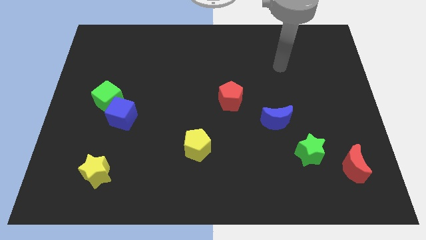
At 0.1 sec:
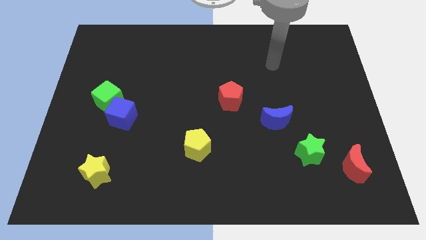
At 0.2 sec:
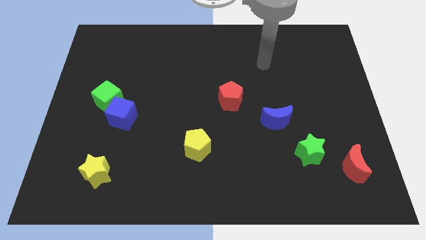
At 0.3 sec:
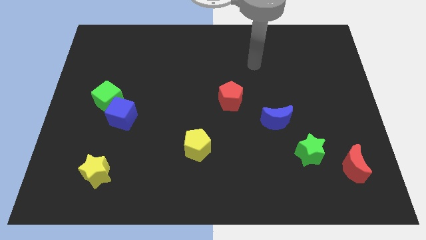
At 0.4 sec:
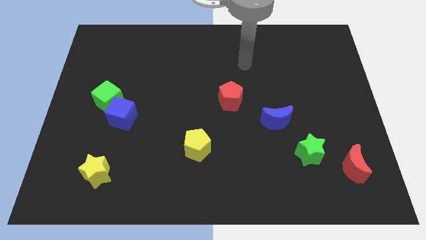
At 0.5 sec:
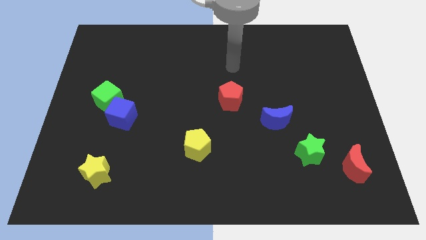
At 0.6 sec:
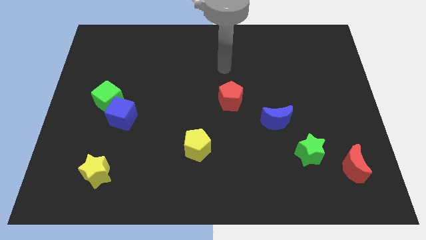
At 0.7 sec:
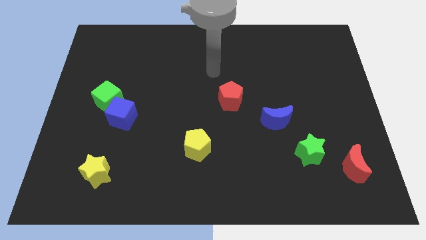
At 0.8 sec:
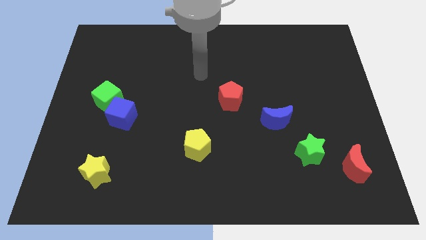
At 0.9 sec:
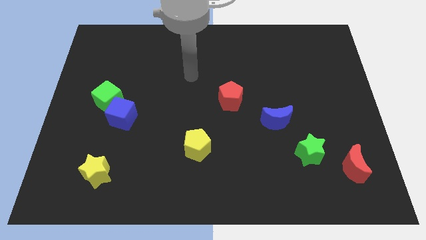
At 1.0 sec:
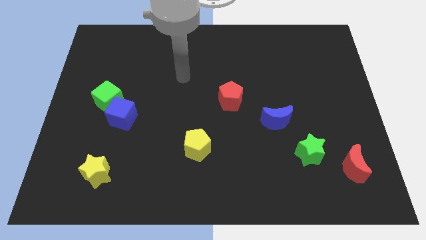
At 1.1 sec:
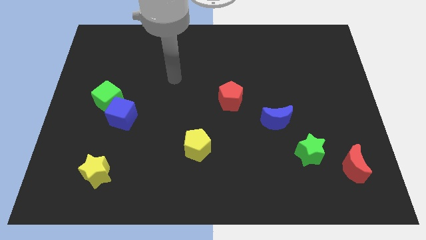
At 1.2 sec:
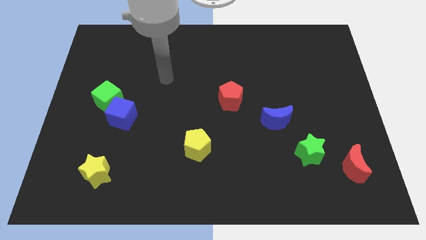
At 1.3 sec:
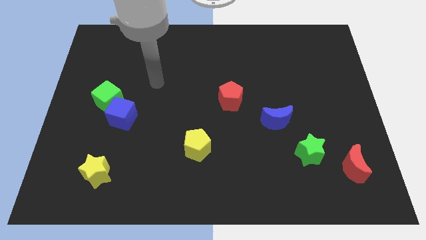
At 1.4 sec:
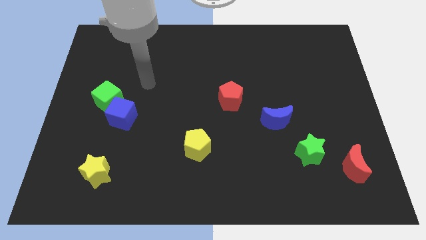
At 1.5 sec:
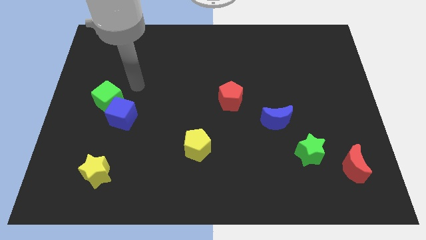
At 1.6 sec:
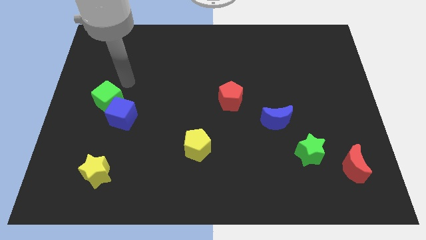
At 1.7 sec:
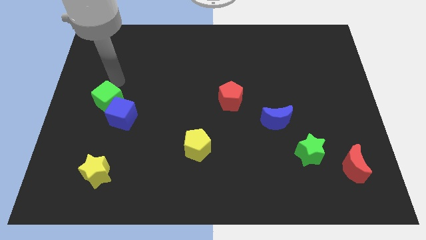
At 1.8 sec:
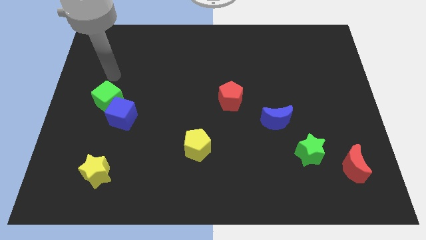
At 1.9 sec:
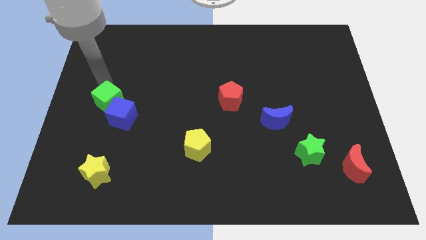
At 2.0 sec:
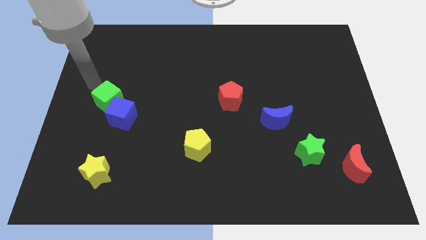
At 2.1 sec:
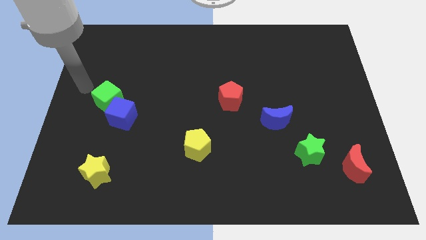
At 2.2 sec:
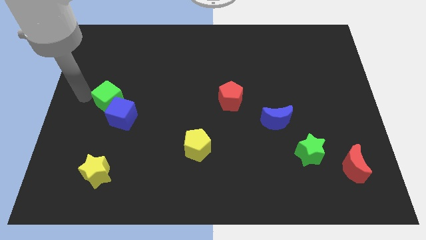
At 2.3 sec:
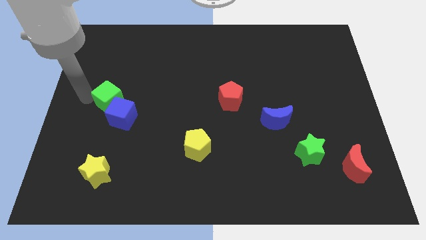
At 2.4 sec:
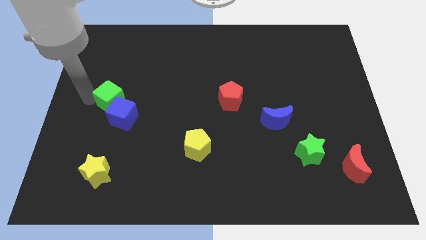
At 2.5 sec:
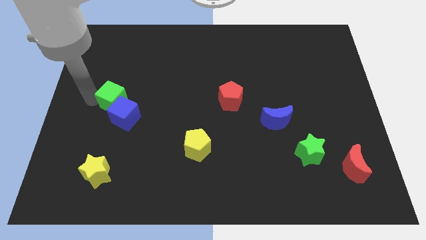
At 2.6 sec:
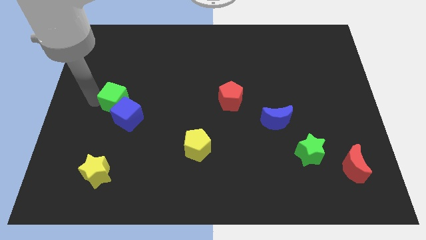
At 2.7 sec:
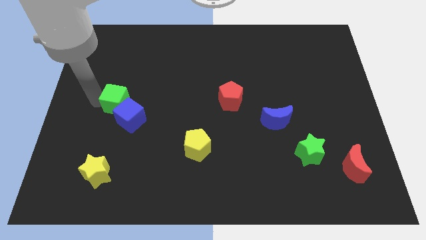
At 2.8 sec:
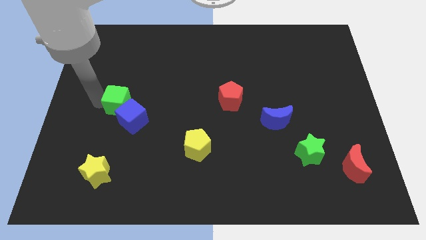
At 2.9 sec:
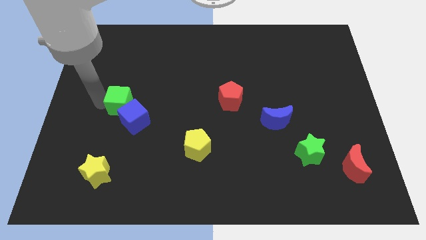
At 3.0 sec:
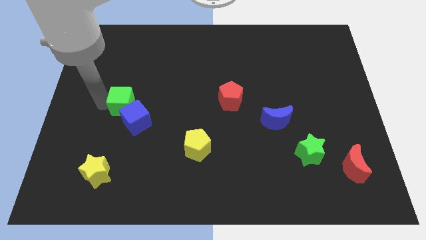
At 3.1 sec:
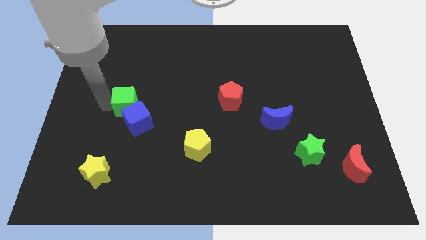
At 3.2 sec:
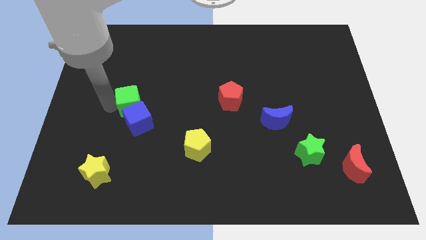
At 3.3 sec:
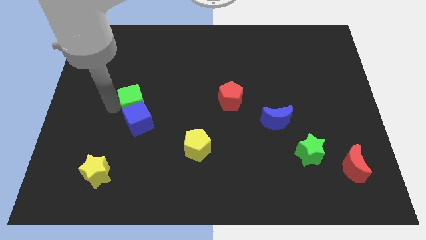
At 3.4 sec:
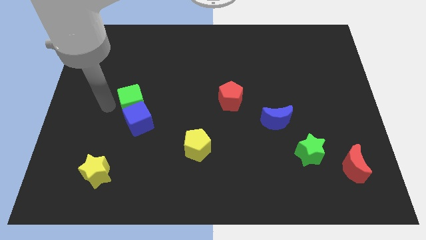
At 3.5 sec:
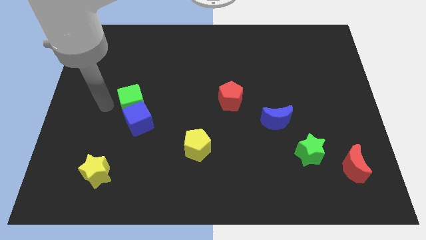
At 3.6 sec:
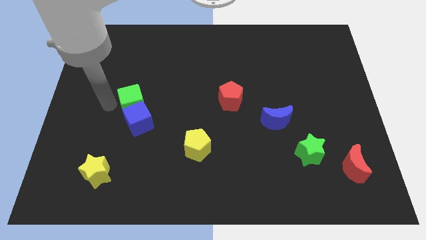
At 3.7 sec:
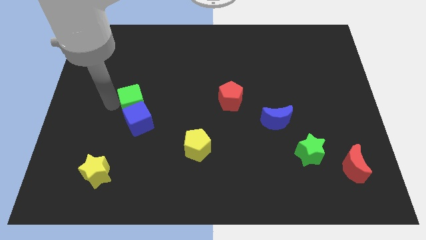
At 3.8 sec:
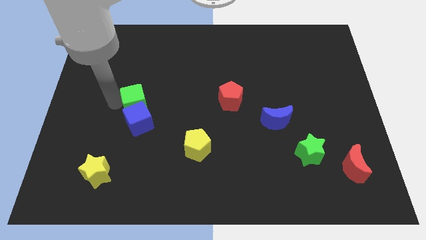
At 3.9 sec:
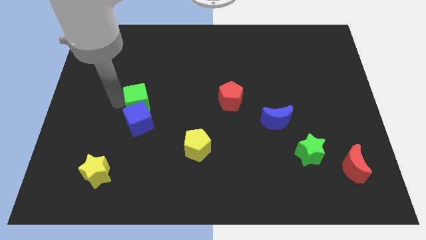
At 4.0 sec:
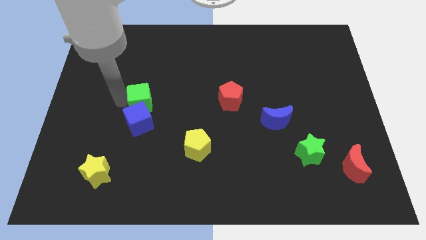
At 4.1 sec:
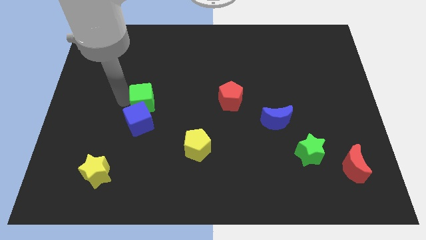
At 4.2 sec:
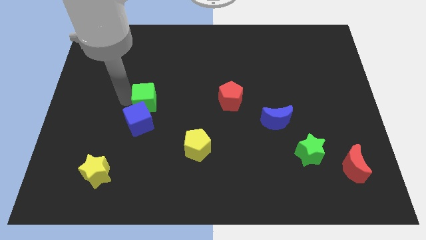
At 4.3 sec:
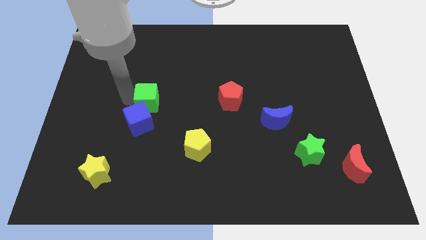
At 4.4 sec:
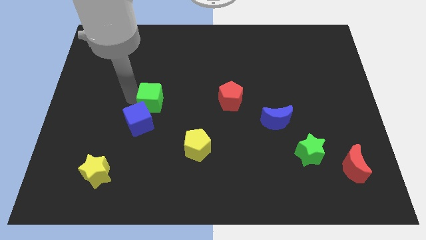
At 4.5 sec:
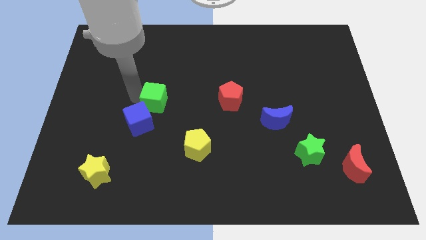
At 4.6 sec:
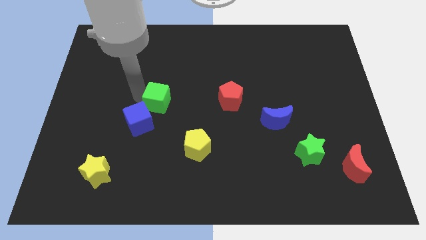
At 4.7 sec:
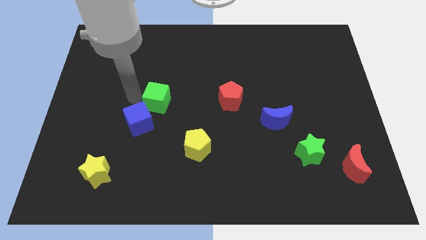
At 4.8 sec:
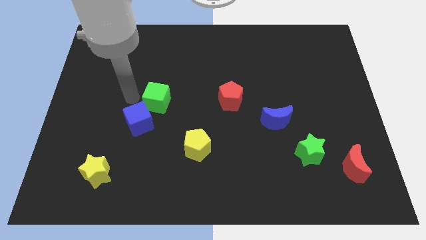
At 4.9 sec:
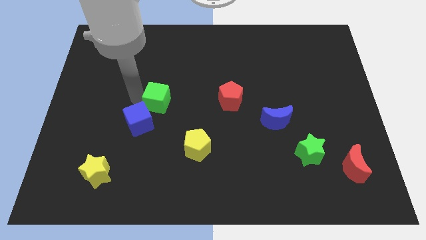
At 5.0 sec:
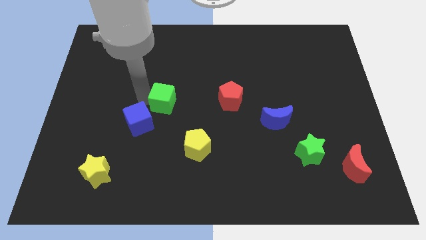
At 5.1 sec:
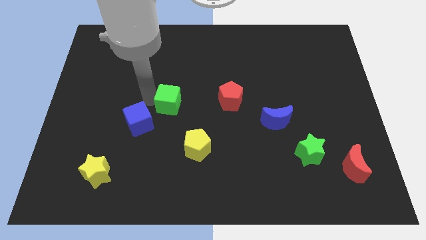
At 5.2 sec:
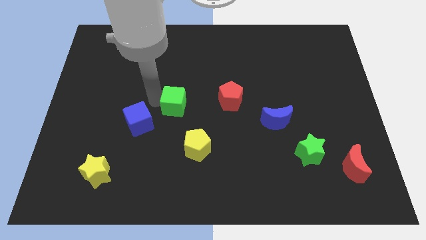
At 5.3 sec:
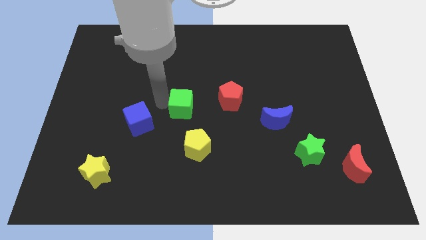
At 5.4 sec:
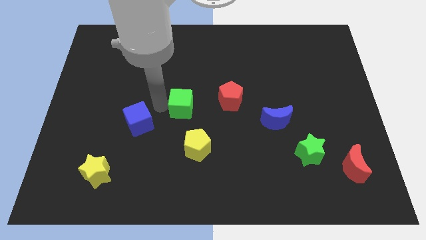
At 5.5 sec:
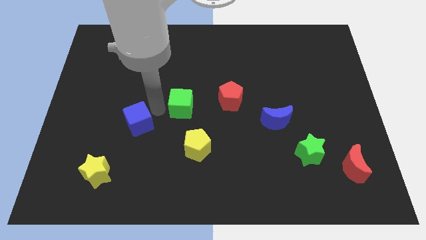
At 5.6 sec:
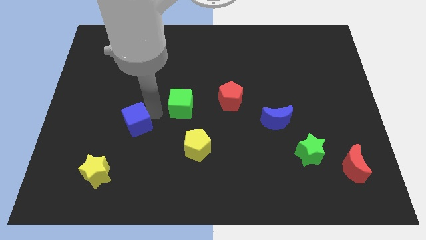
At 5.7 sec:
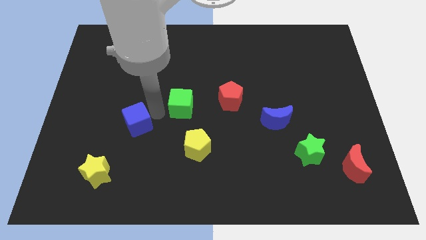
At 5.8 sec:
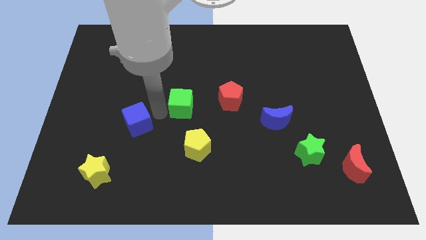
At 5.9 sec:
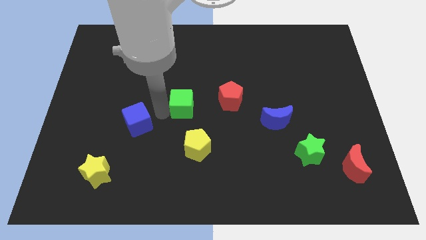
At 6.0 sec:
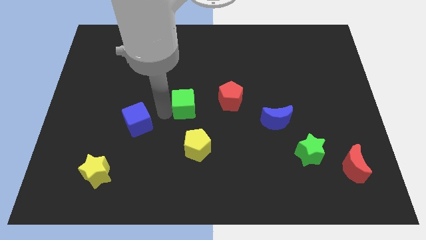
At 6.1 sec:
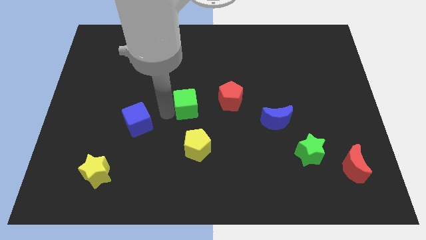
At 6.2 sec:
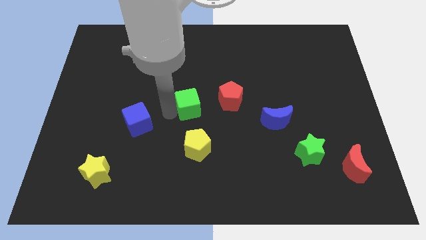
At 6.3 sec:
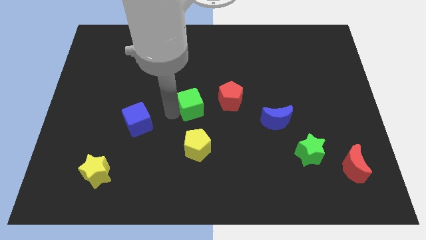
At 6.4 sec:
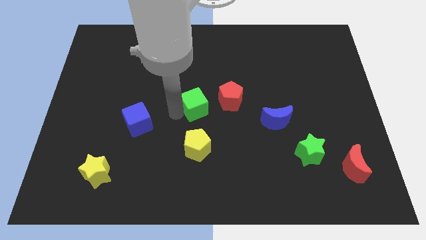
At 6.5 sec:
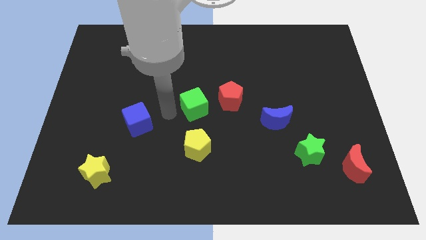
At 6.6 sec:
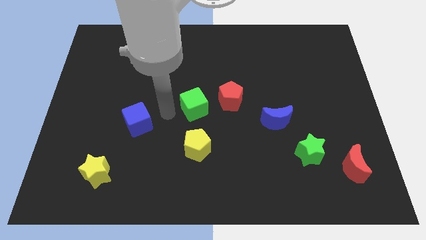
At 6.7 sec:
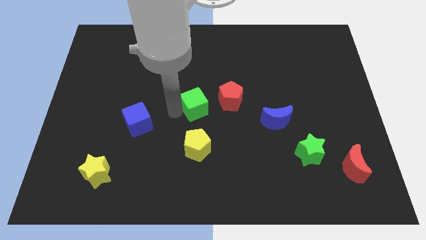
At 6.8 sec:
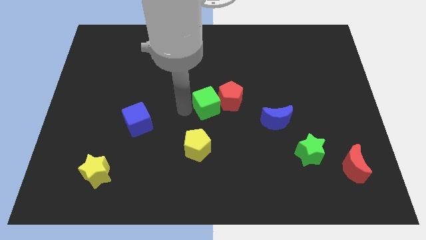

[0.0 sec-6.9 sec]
move the green cube to the red pentagon

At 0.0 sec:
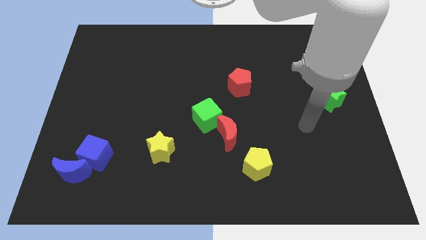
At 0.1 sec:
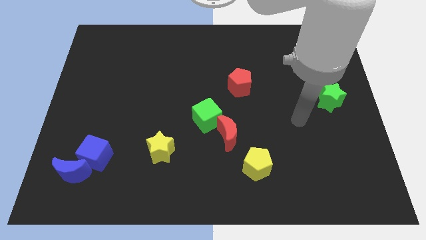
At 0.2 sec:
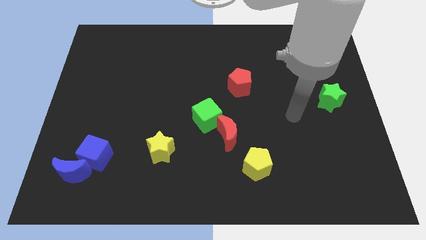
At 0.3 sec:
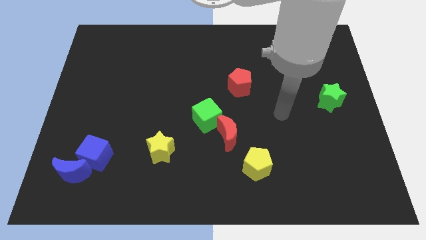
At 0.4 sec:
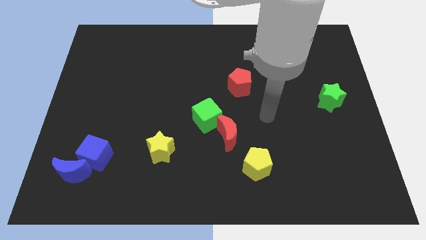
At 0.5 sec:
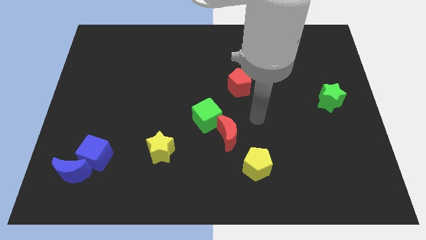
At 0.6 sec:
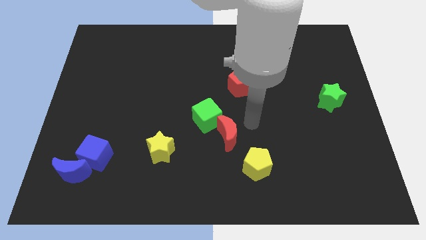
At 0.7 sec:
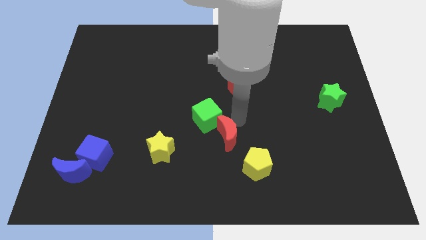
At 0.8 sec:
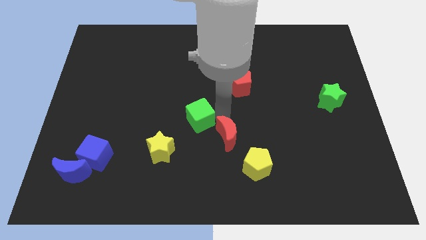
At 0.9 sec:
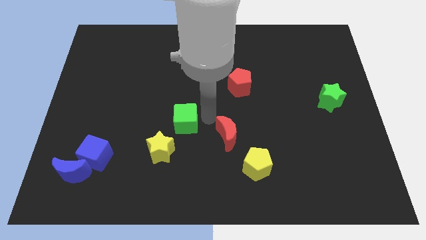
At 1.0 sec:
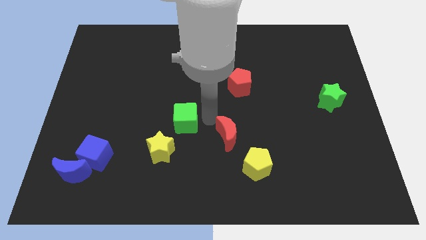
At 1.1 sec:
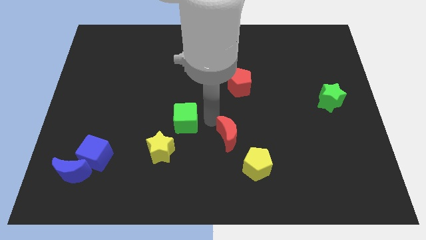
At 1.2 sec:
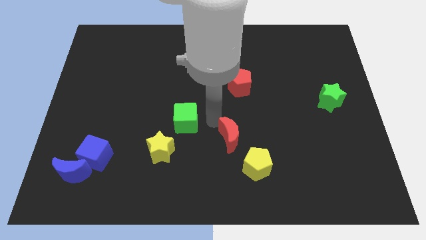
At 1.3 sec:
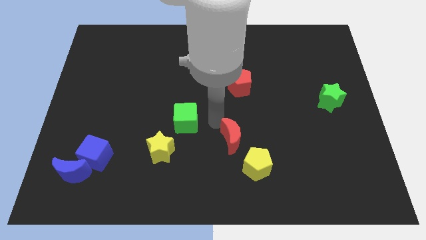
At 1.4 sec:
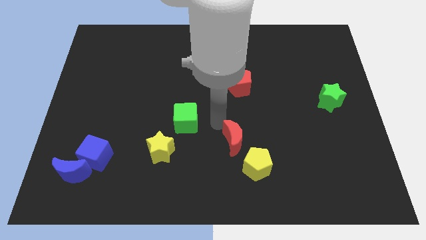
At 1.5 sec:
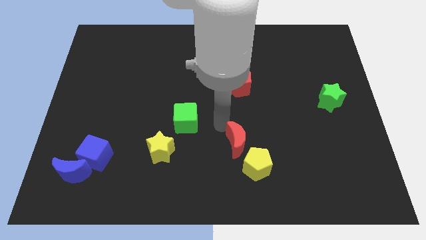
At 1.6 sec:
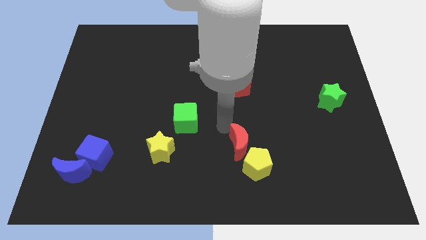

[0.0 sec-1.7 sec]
put the red moon to the yellow pentagon
